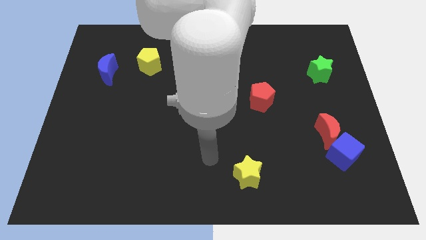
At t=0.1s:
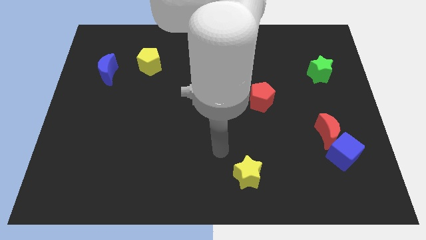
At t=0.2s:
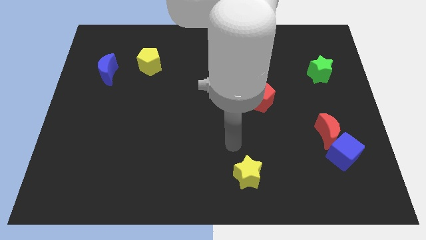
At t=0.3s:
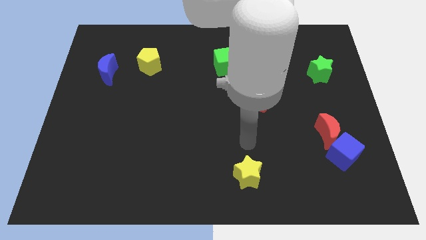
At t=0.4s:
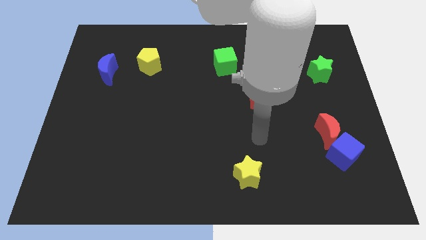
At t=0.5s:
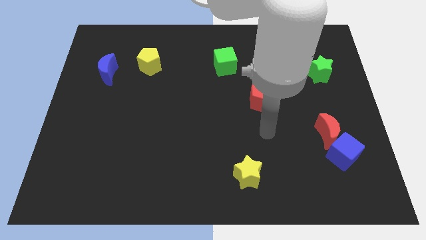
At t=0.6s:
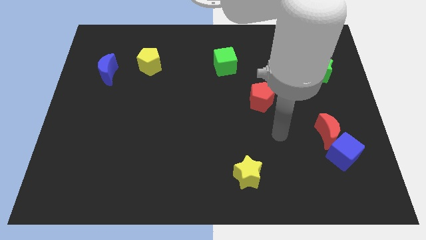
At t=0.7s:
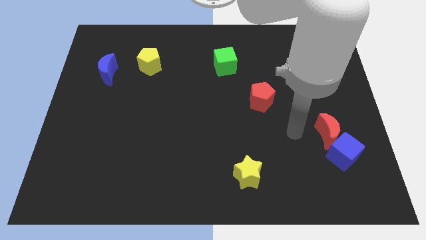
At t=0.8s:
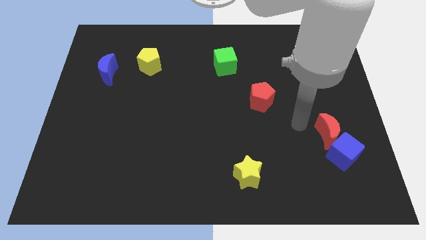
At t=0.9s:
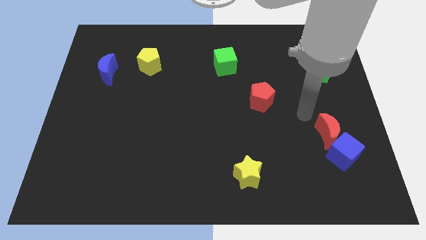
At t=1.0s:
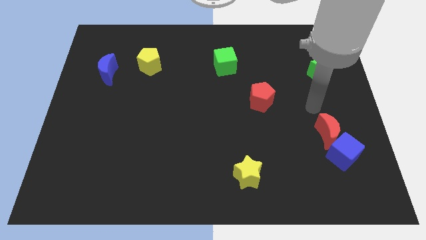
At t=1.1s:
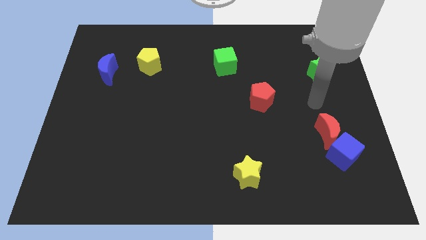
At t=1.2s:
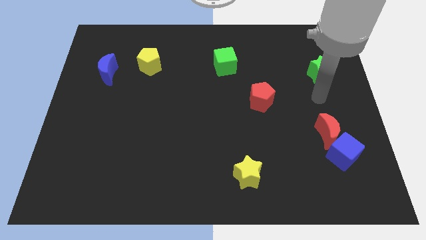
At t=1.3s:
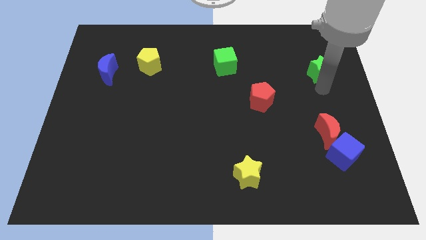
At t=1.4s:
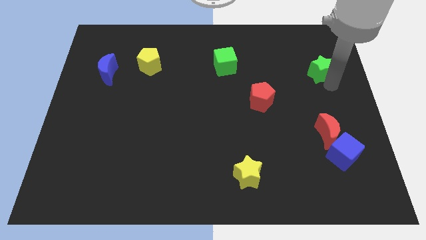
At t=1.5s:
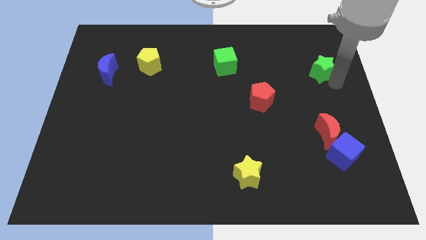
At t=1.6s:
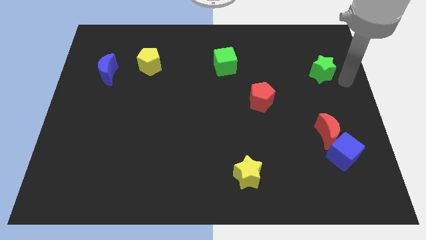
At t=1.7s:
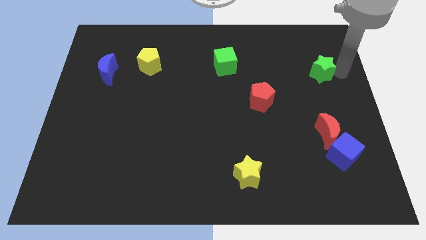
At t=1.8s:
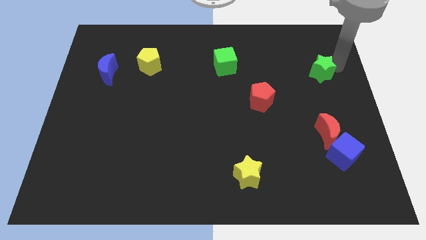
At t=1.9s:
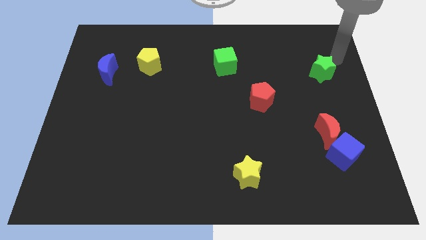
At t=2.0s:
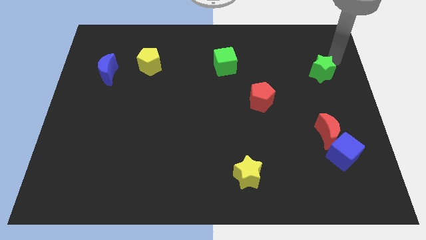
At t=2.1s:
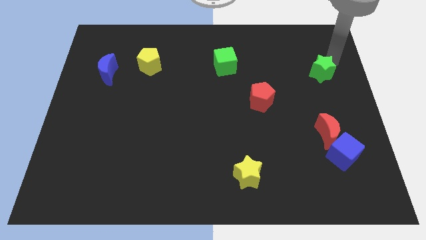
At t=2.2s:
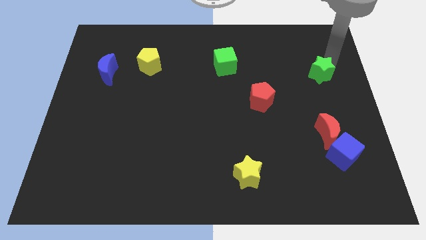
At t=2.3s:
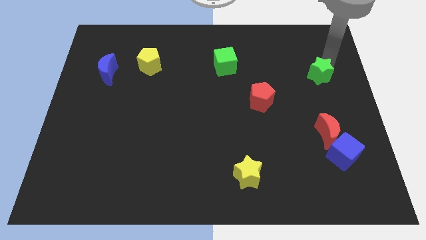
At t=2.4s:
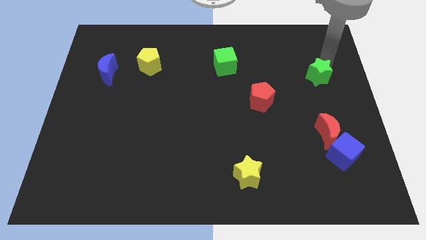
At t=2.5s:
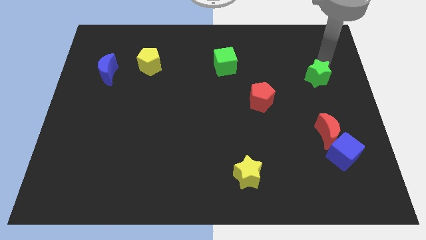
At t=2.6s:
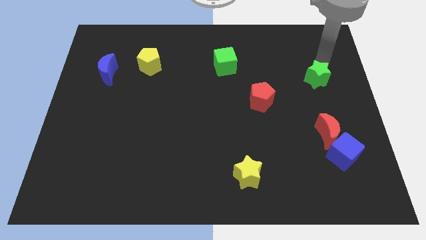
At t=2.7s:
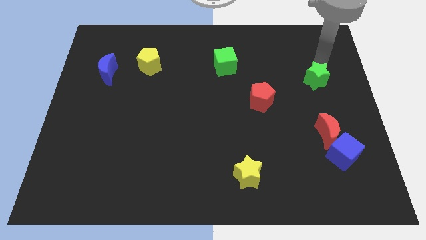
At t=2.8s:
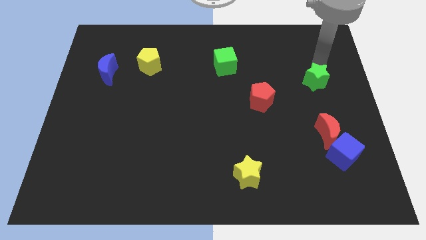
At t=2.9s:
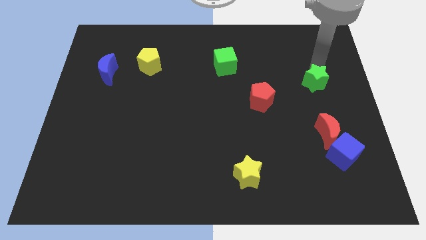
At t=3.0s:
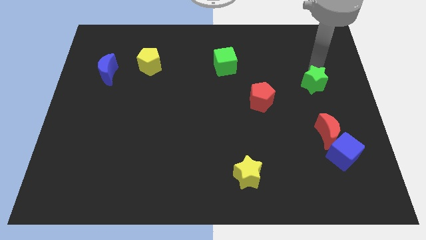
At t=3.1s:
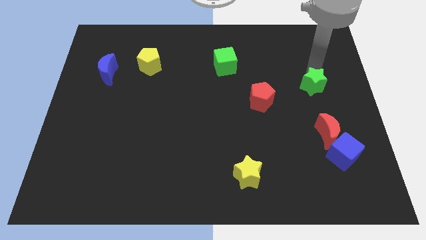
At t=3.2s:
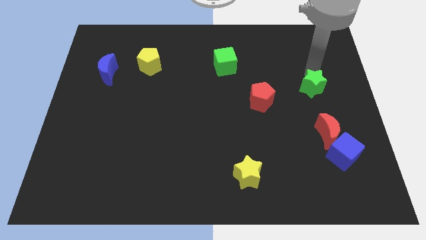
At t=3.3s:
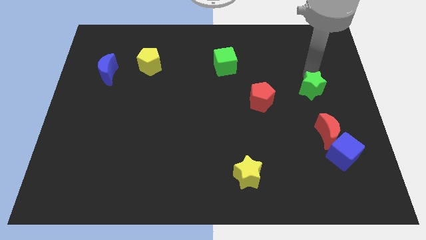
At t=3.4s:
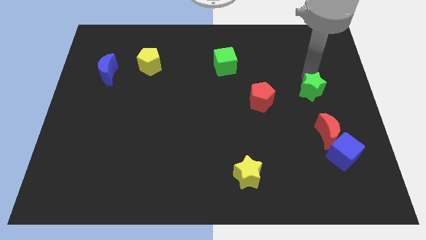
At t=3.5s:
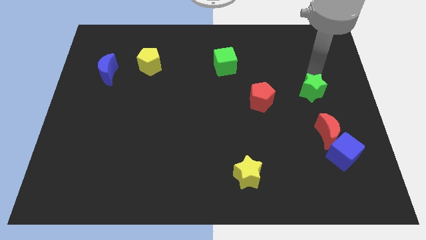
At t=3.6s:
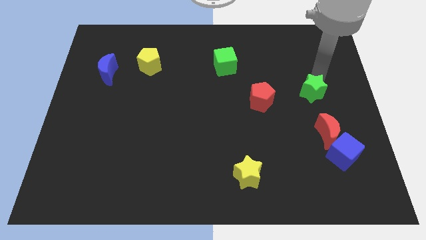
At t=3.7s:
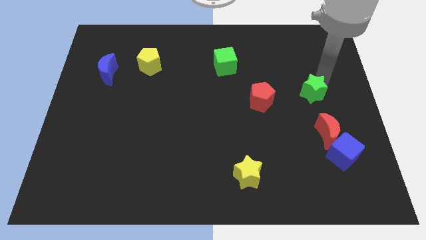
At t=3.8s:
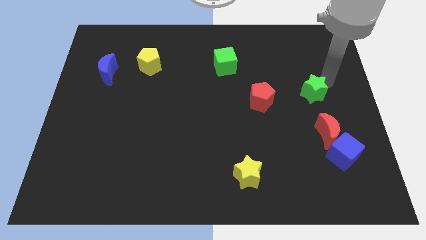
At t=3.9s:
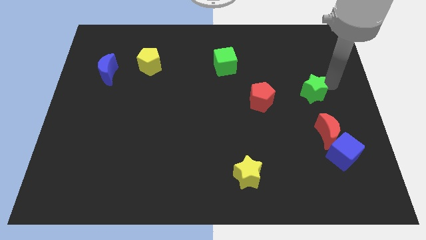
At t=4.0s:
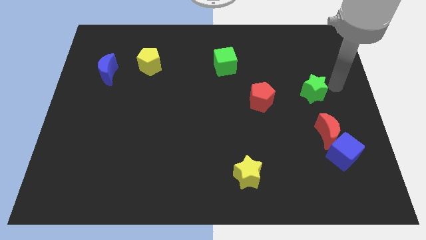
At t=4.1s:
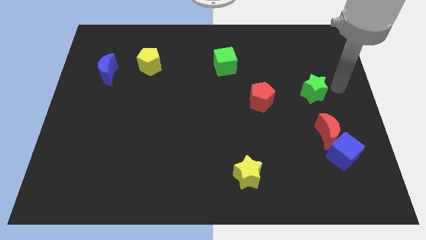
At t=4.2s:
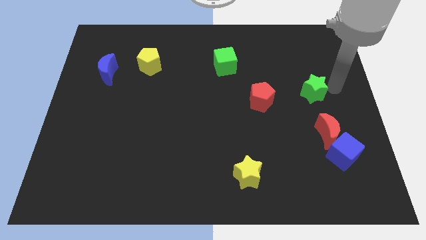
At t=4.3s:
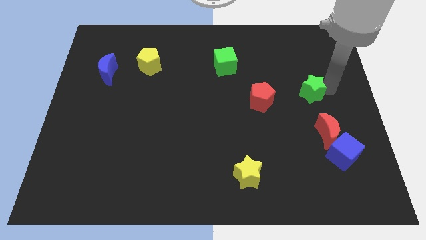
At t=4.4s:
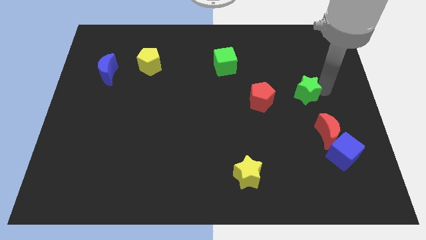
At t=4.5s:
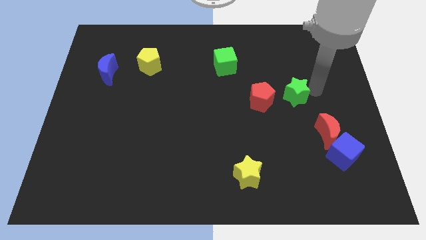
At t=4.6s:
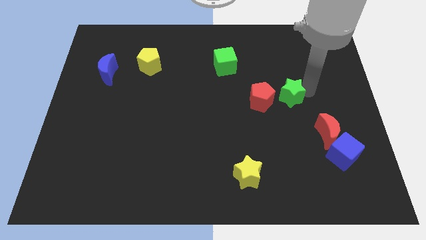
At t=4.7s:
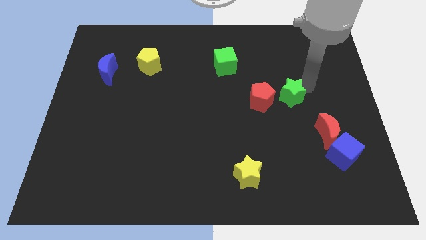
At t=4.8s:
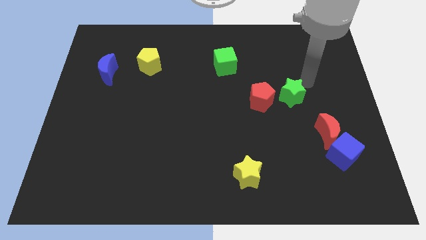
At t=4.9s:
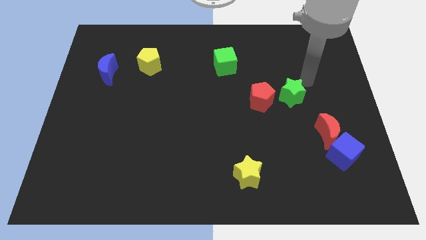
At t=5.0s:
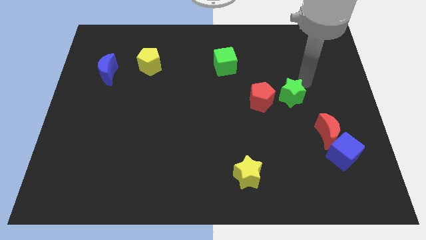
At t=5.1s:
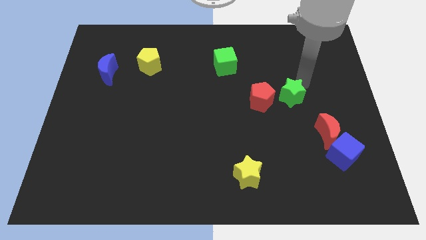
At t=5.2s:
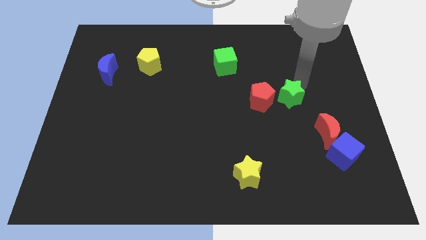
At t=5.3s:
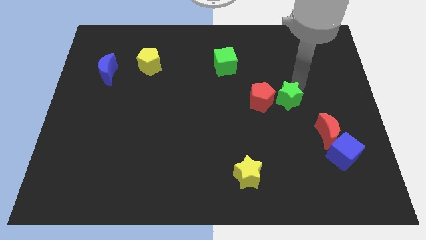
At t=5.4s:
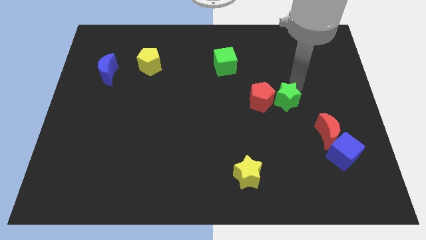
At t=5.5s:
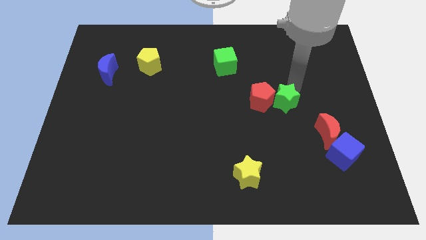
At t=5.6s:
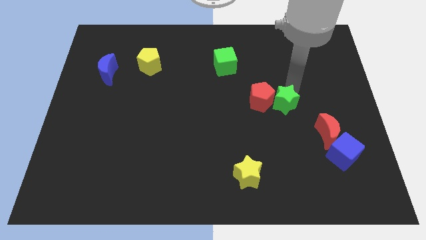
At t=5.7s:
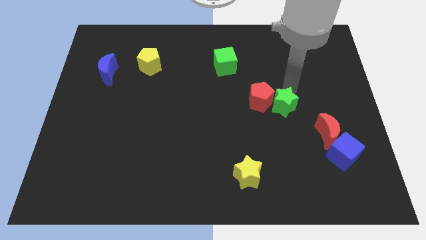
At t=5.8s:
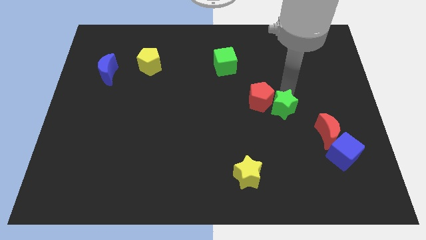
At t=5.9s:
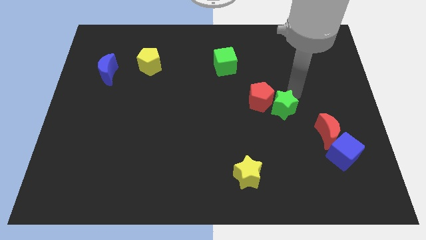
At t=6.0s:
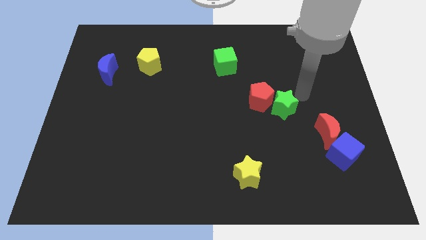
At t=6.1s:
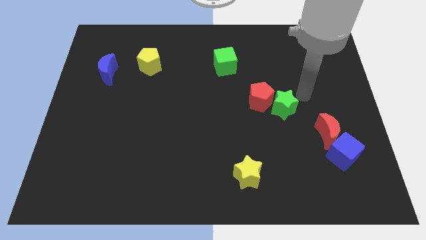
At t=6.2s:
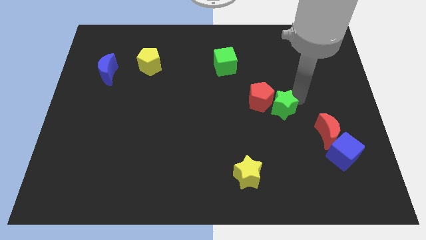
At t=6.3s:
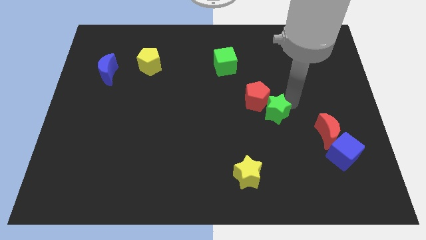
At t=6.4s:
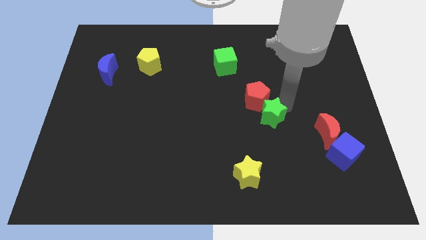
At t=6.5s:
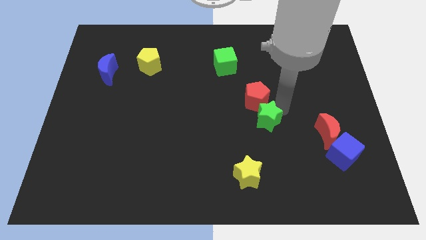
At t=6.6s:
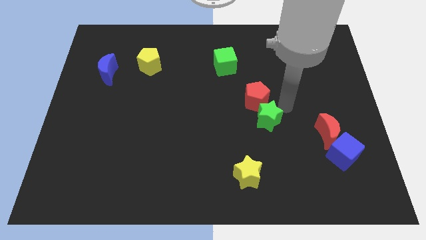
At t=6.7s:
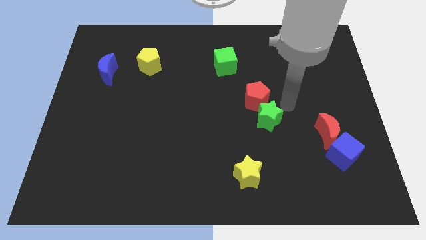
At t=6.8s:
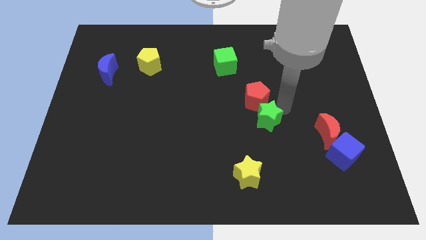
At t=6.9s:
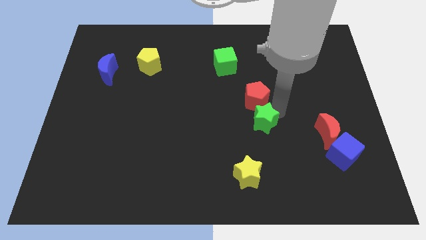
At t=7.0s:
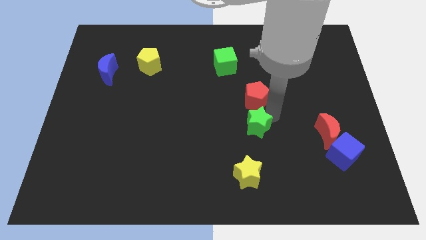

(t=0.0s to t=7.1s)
move the green star to the top side of the yellow star

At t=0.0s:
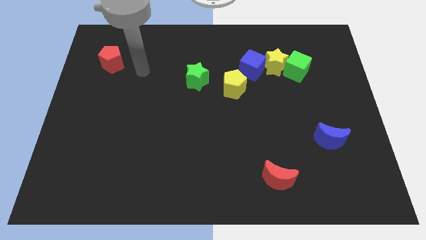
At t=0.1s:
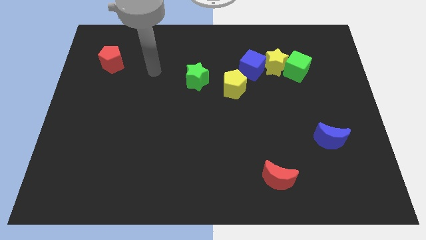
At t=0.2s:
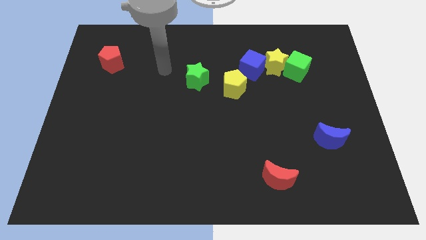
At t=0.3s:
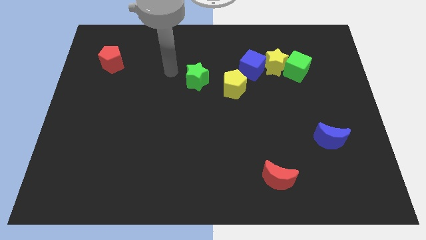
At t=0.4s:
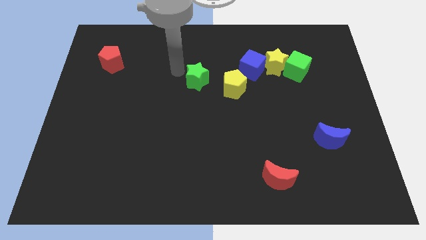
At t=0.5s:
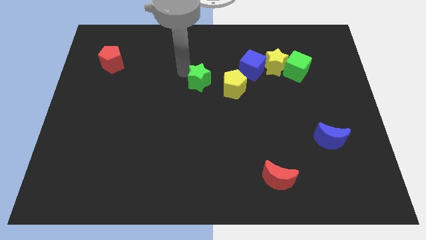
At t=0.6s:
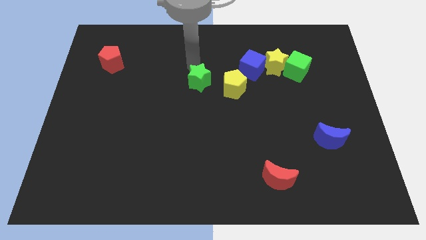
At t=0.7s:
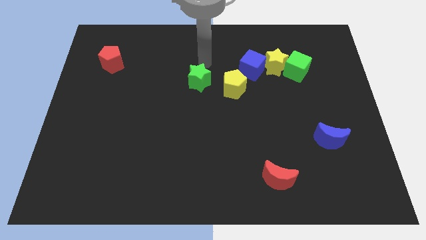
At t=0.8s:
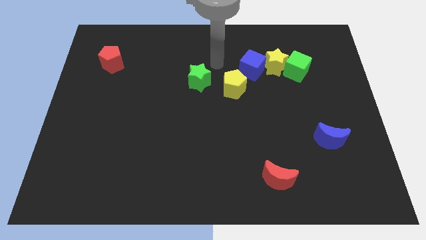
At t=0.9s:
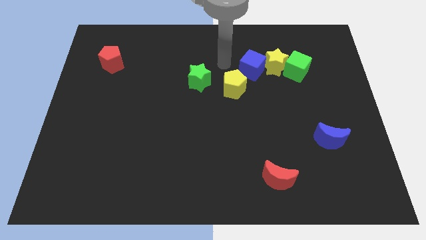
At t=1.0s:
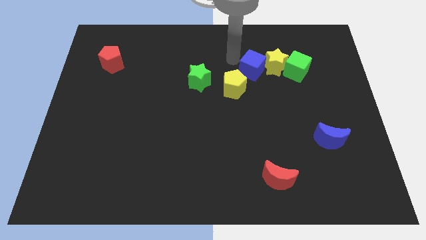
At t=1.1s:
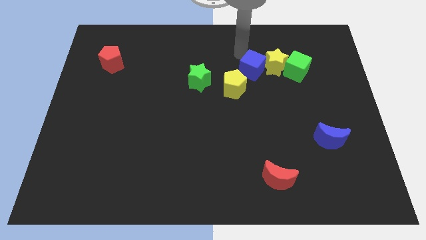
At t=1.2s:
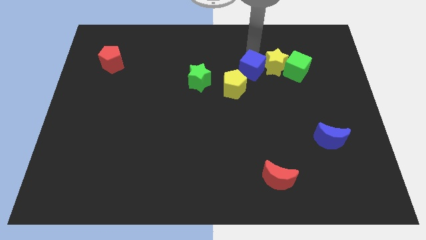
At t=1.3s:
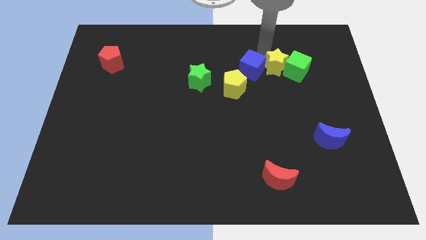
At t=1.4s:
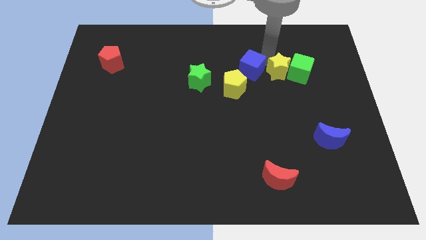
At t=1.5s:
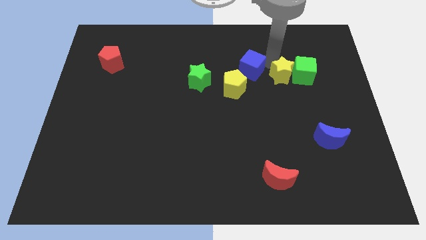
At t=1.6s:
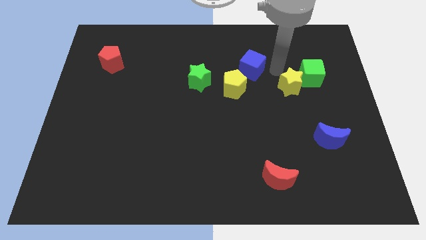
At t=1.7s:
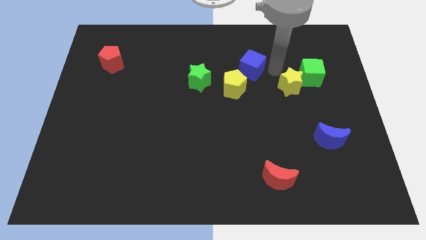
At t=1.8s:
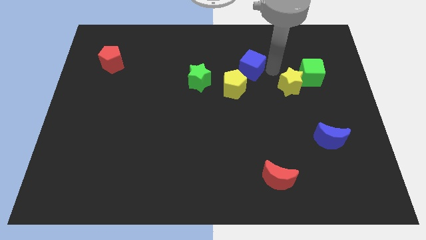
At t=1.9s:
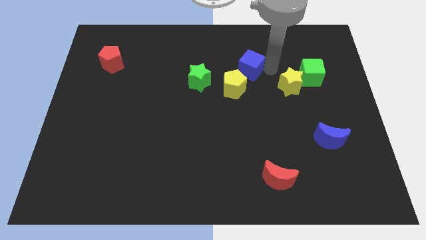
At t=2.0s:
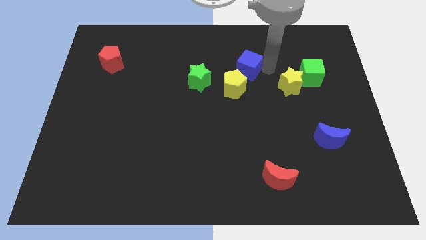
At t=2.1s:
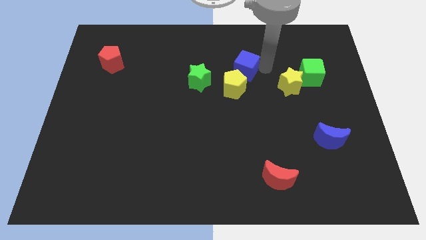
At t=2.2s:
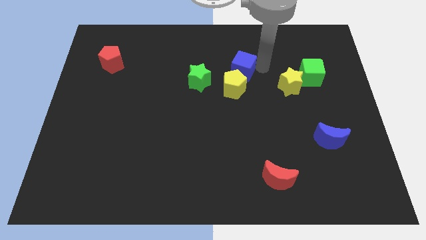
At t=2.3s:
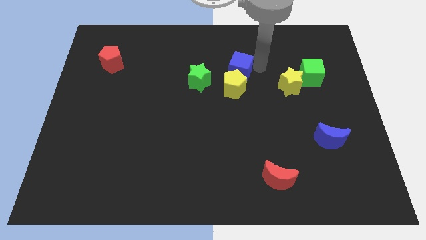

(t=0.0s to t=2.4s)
slide the blue cube to the top right of the green star
